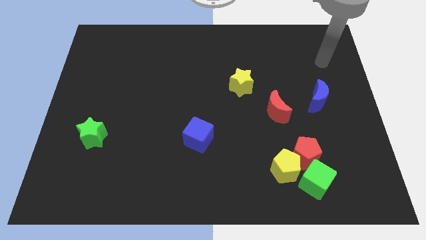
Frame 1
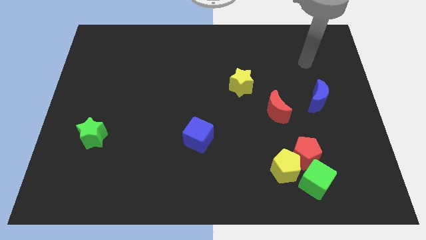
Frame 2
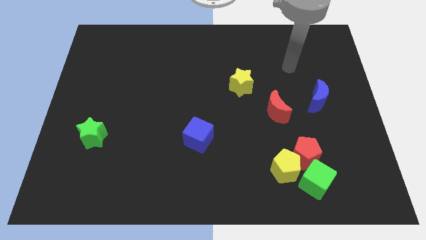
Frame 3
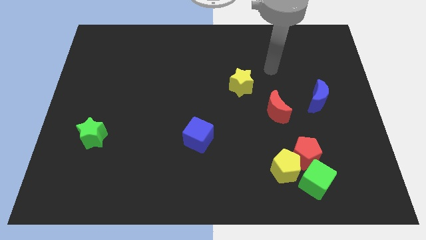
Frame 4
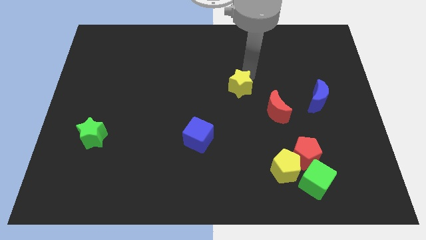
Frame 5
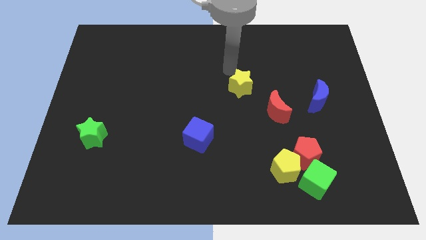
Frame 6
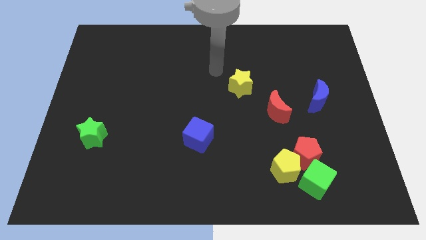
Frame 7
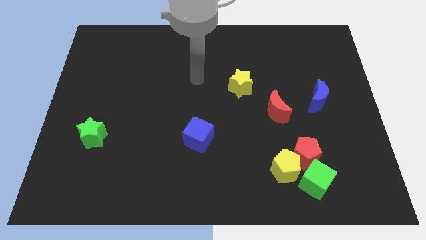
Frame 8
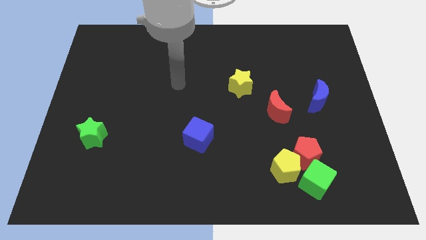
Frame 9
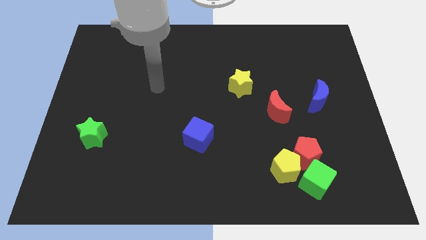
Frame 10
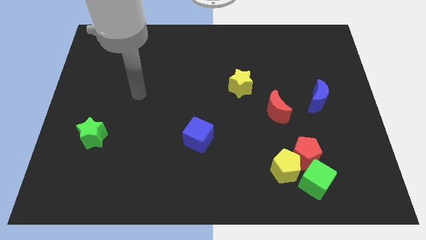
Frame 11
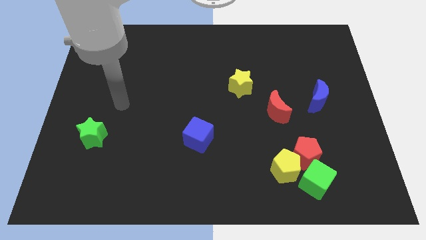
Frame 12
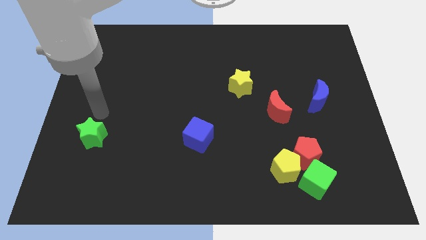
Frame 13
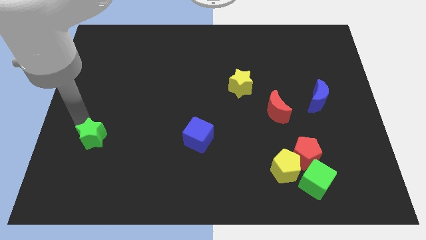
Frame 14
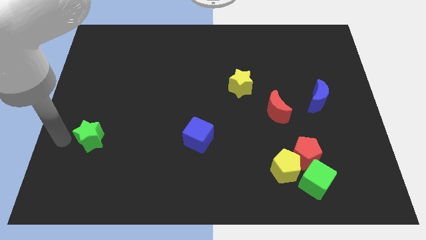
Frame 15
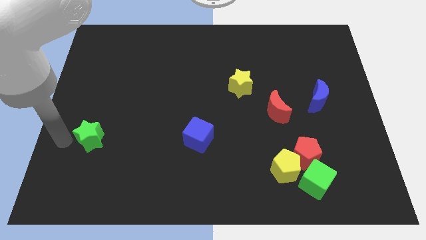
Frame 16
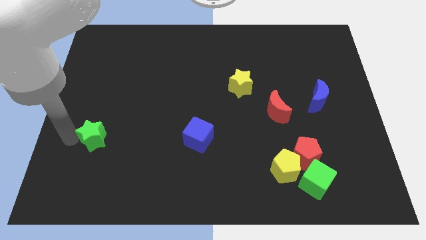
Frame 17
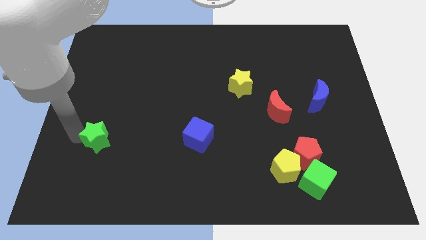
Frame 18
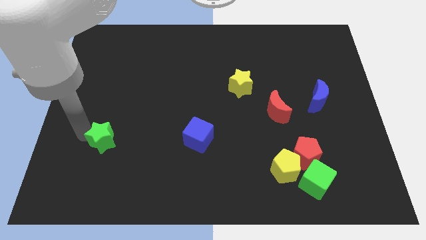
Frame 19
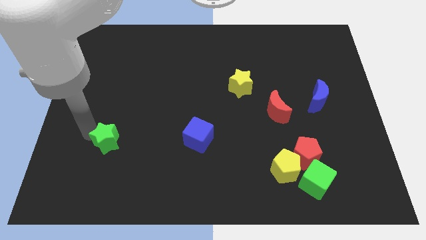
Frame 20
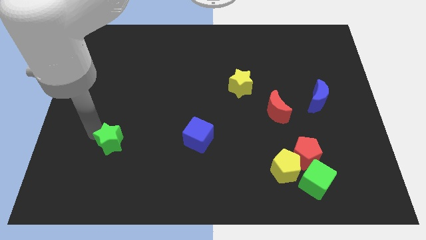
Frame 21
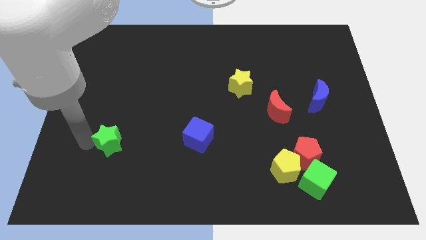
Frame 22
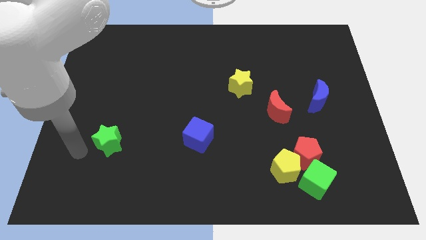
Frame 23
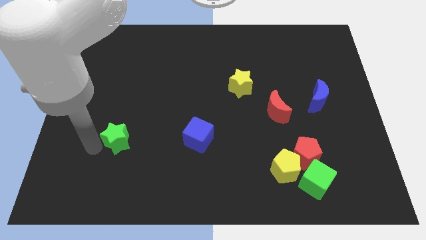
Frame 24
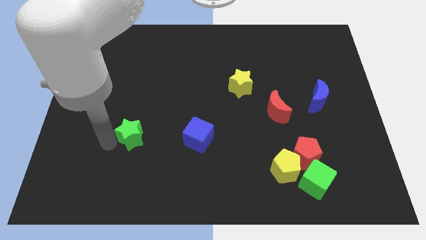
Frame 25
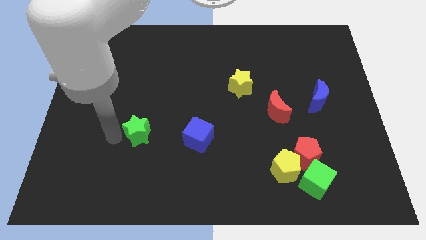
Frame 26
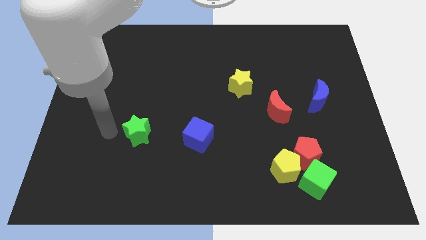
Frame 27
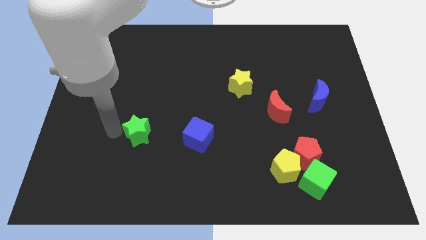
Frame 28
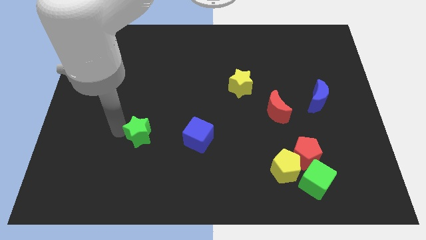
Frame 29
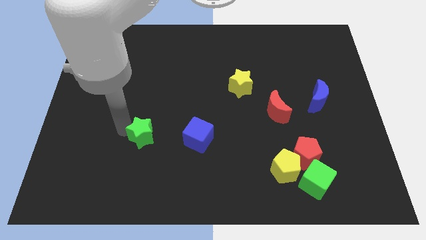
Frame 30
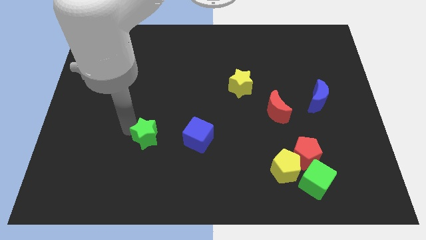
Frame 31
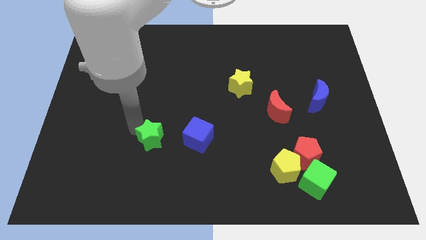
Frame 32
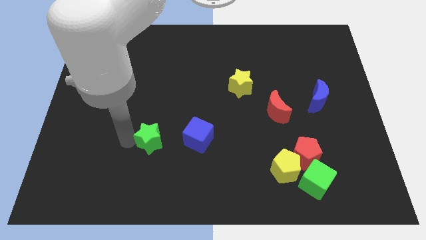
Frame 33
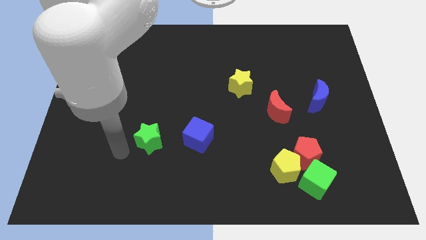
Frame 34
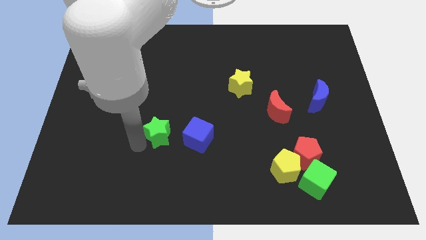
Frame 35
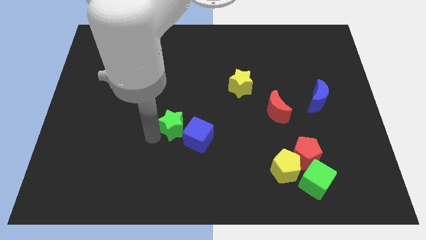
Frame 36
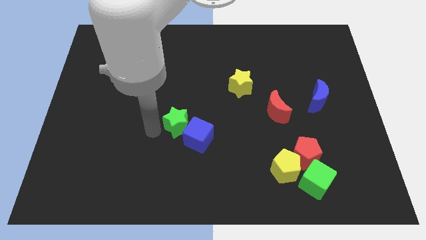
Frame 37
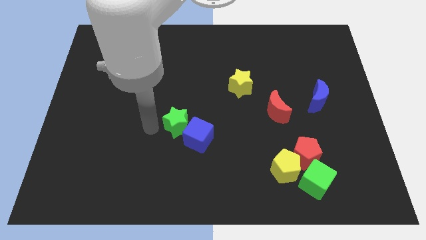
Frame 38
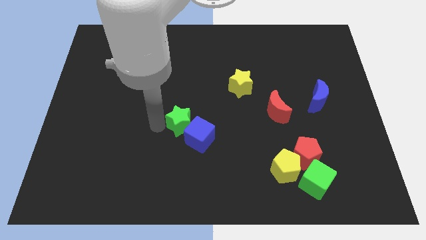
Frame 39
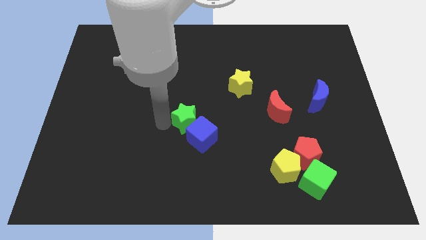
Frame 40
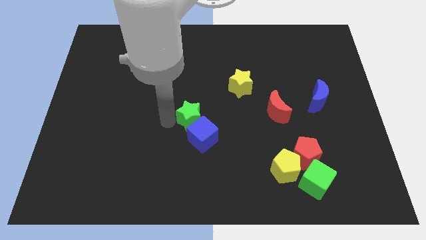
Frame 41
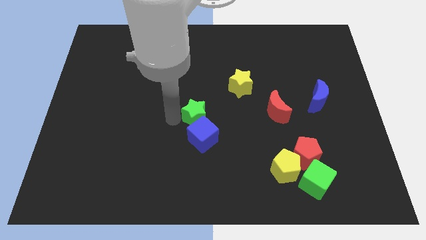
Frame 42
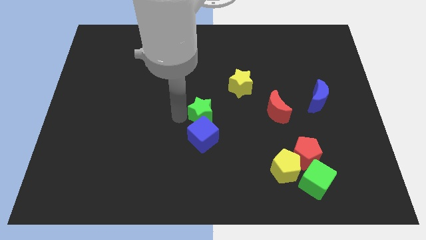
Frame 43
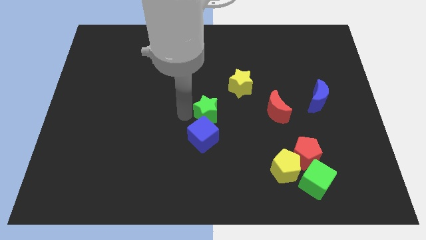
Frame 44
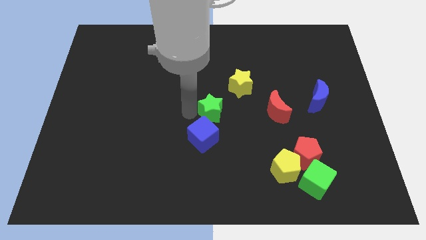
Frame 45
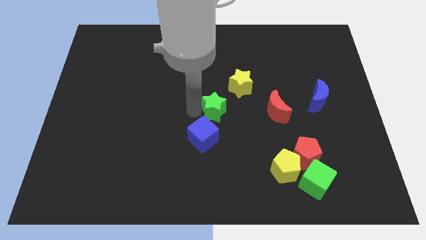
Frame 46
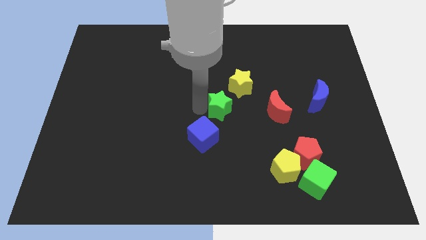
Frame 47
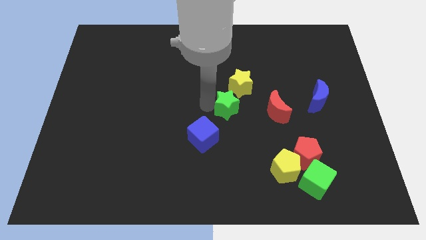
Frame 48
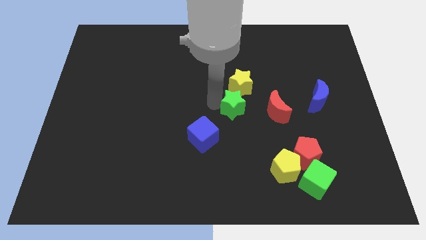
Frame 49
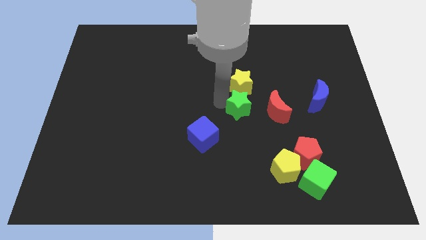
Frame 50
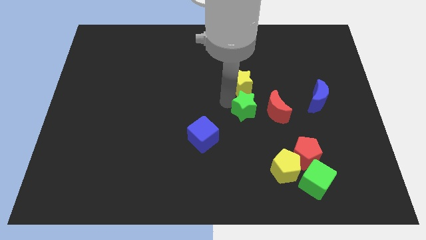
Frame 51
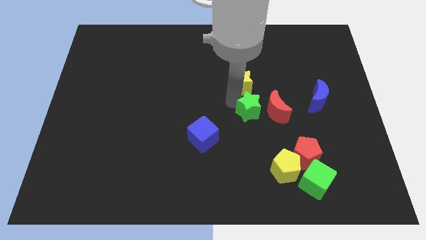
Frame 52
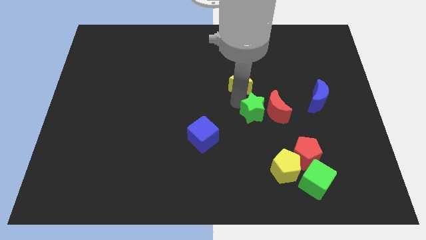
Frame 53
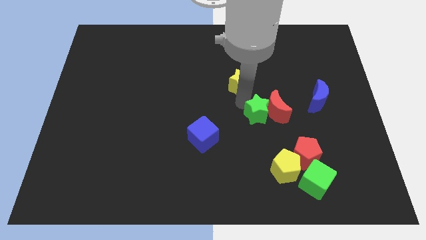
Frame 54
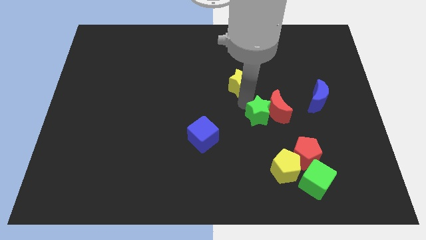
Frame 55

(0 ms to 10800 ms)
move the green star above the yellow pentagon

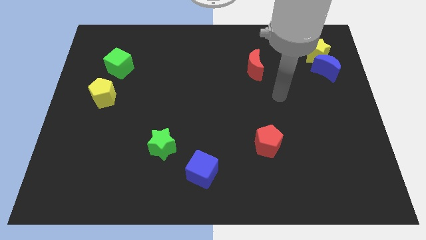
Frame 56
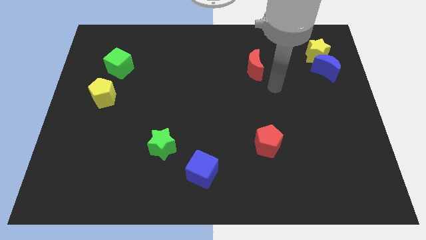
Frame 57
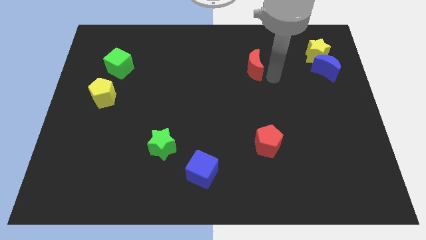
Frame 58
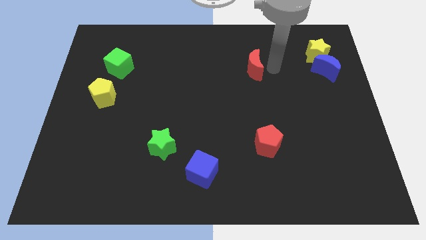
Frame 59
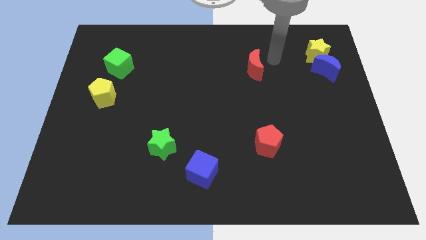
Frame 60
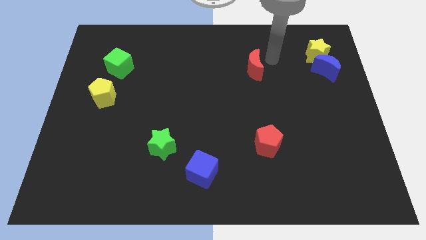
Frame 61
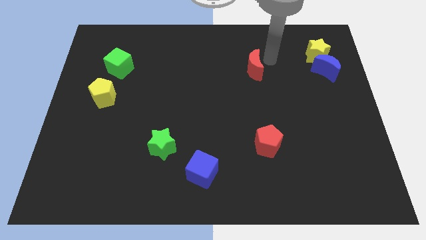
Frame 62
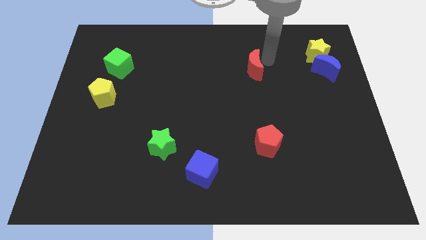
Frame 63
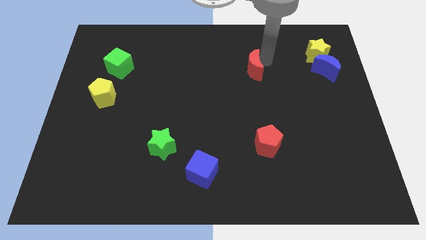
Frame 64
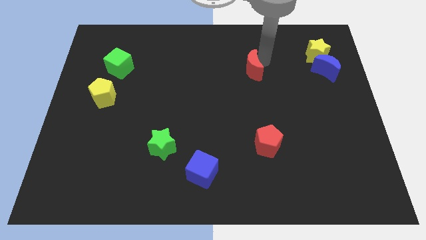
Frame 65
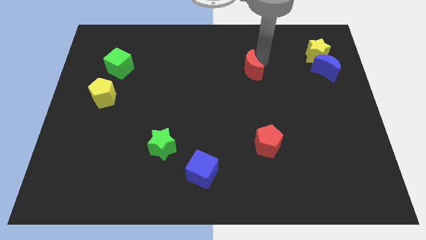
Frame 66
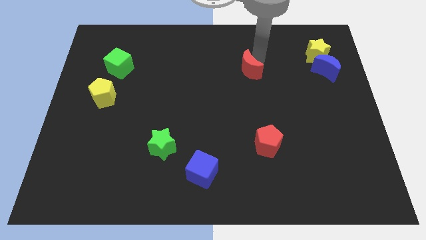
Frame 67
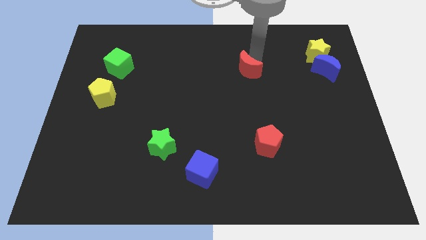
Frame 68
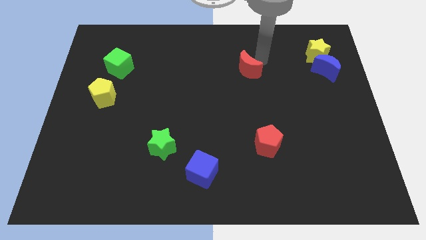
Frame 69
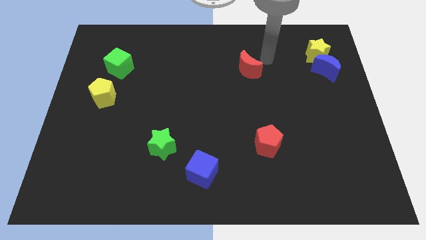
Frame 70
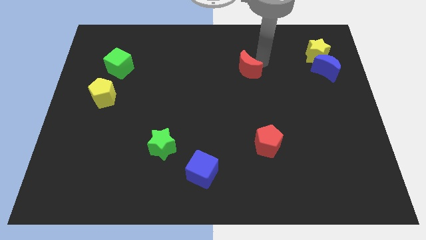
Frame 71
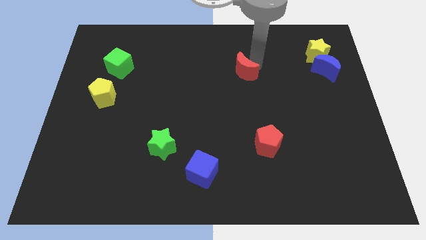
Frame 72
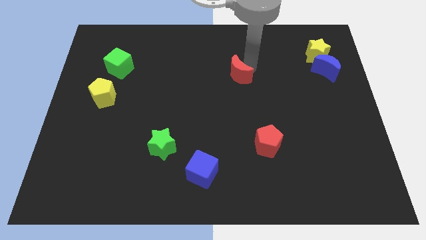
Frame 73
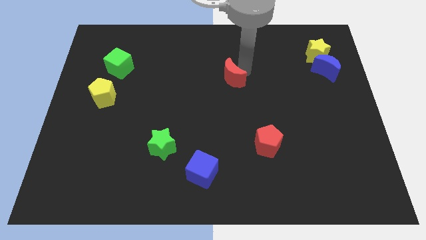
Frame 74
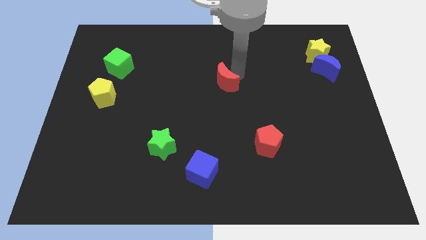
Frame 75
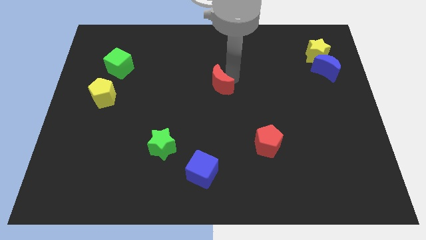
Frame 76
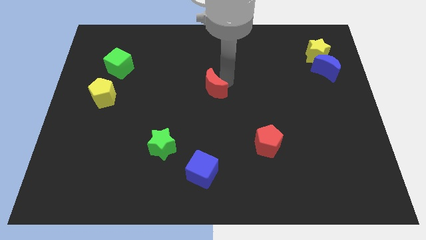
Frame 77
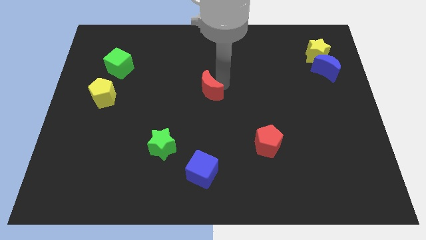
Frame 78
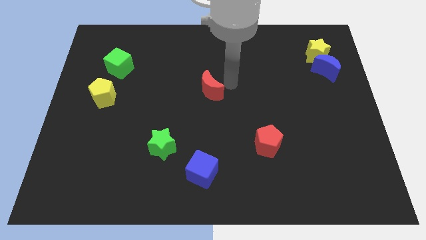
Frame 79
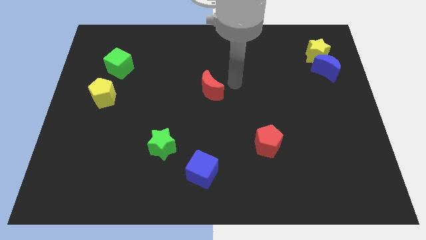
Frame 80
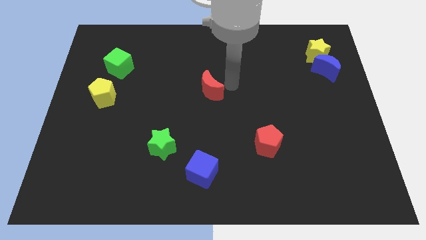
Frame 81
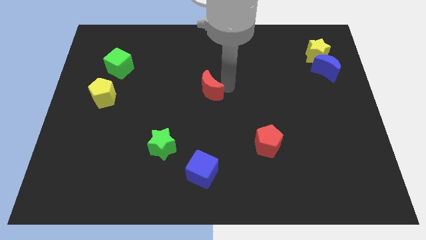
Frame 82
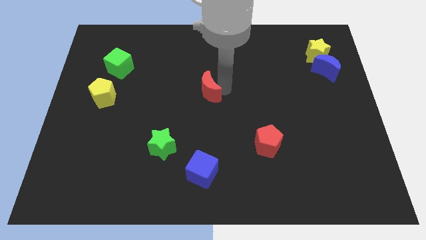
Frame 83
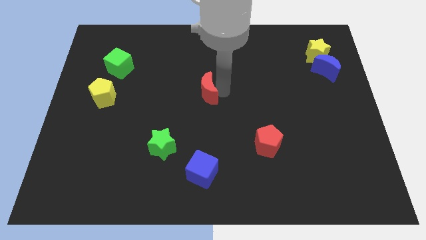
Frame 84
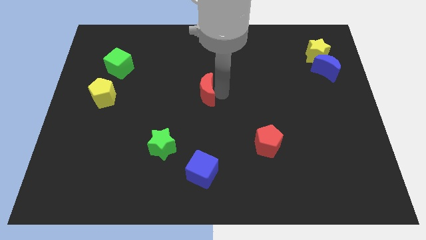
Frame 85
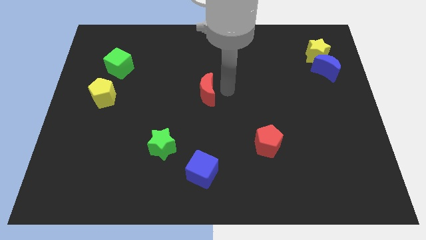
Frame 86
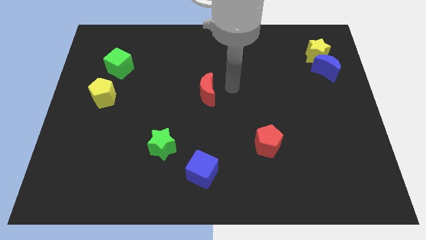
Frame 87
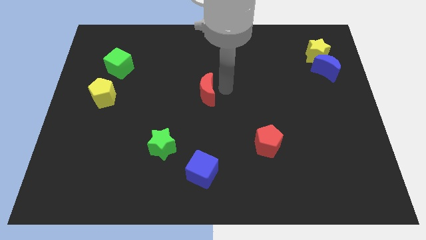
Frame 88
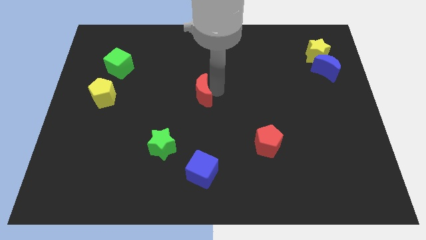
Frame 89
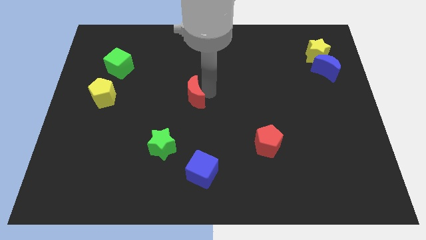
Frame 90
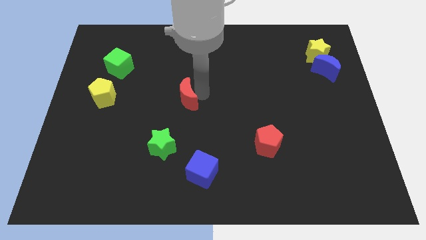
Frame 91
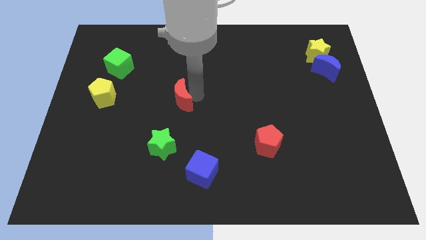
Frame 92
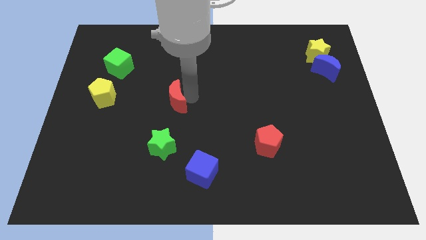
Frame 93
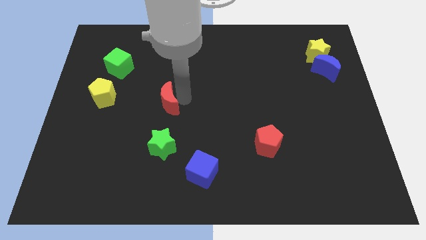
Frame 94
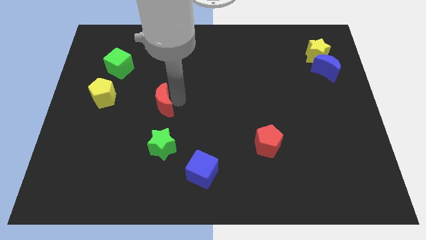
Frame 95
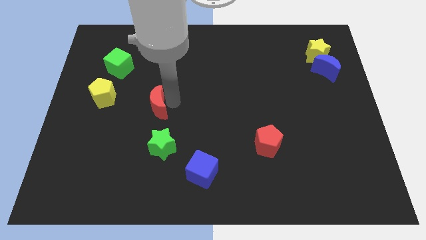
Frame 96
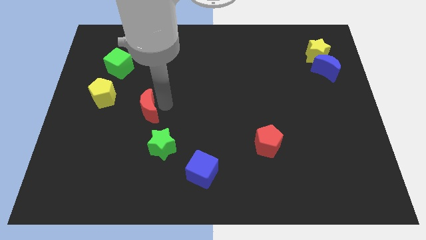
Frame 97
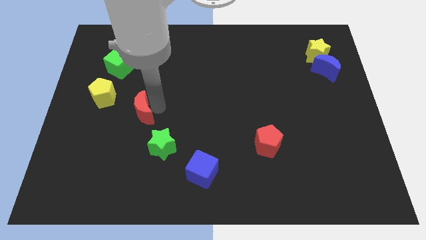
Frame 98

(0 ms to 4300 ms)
put the red moon to the bottom right of the yellow pentagon
